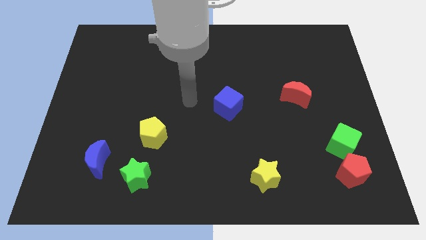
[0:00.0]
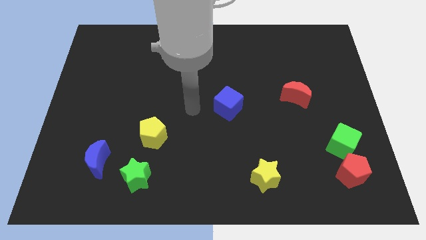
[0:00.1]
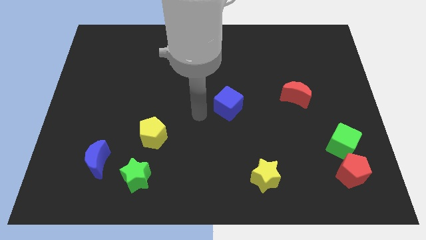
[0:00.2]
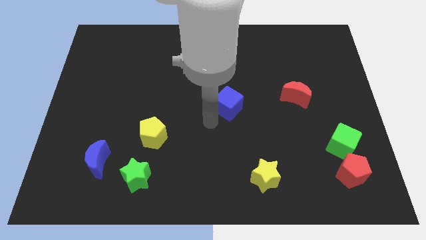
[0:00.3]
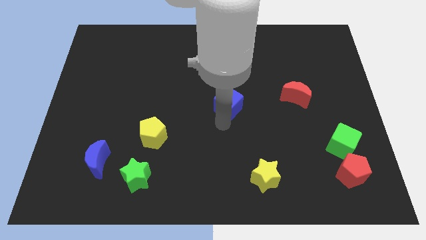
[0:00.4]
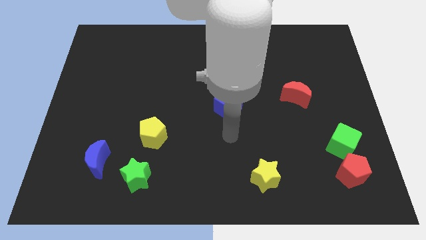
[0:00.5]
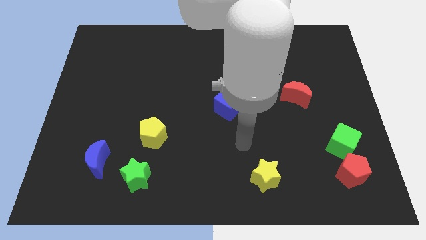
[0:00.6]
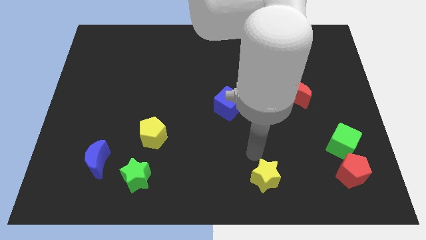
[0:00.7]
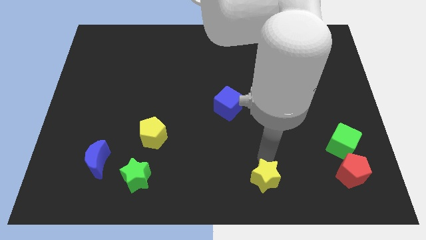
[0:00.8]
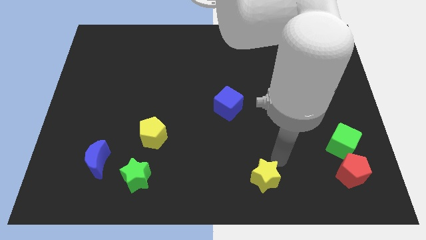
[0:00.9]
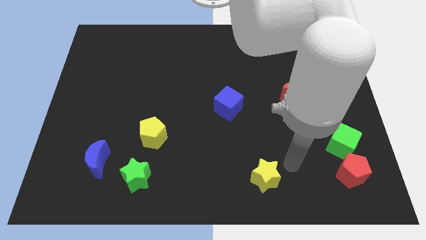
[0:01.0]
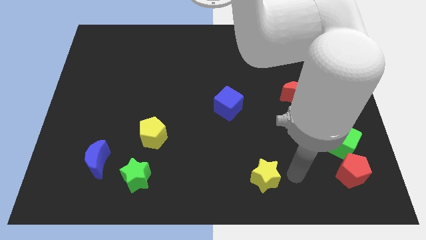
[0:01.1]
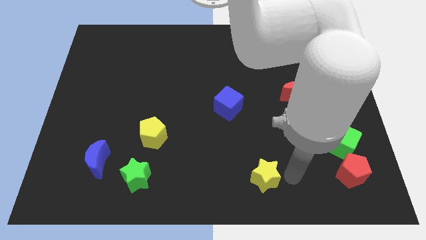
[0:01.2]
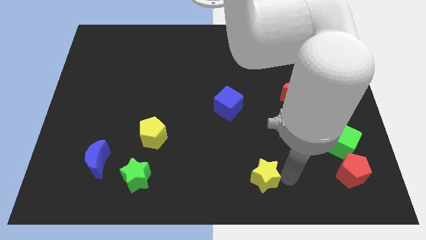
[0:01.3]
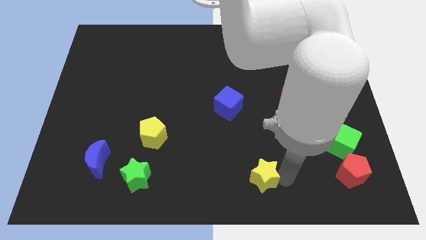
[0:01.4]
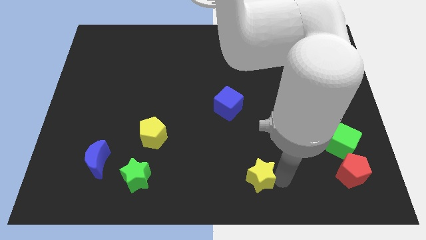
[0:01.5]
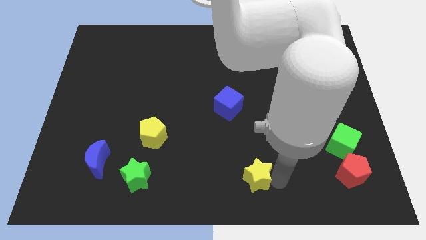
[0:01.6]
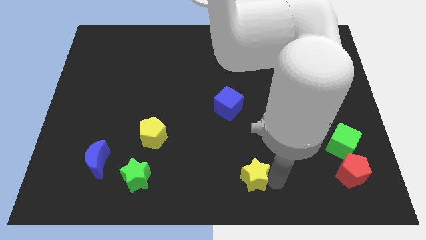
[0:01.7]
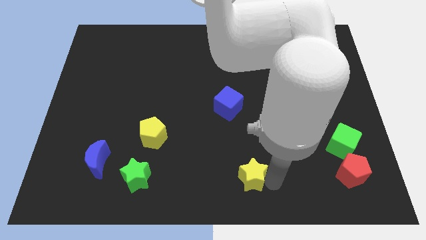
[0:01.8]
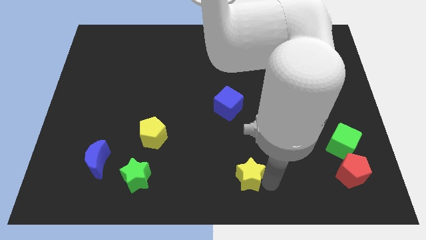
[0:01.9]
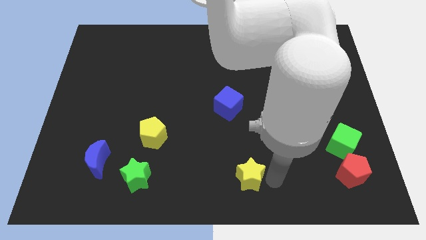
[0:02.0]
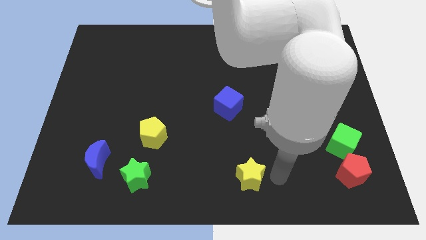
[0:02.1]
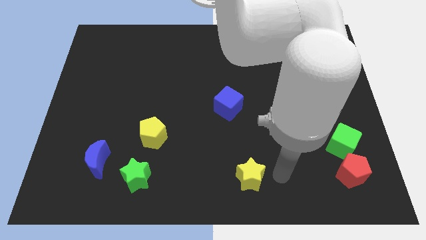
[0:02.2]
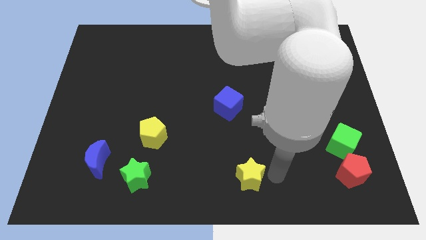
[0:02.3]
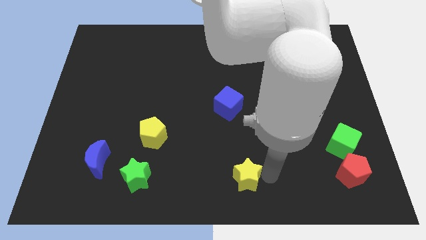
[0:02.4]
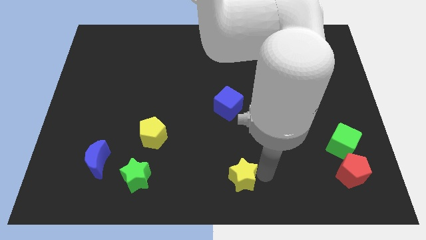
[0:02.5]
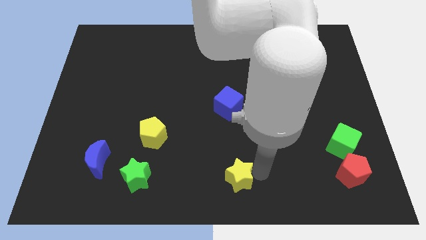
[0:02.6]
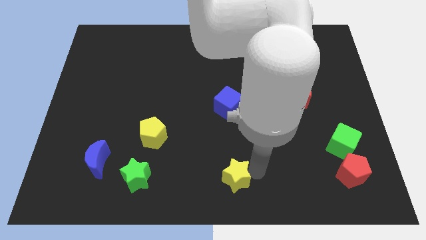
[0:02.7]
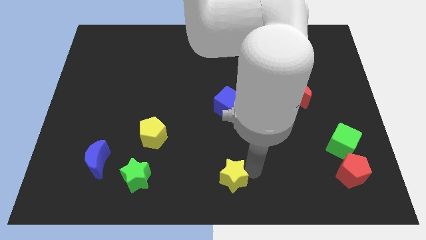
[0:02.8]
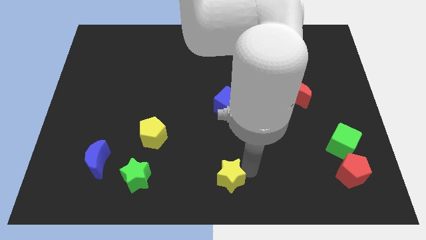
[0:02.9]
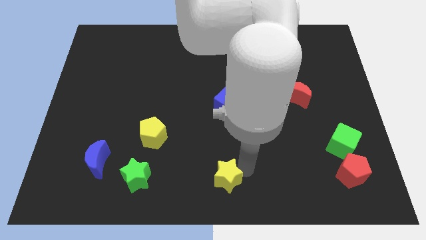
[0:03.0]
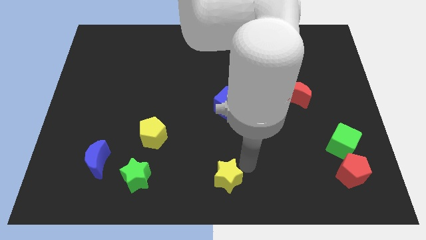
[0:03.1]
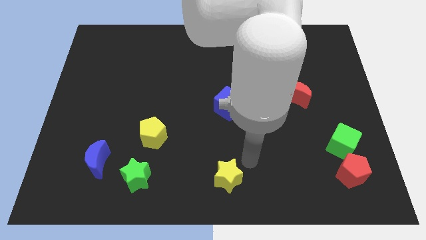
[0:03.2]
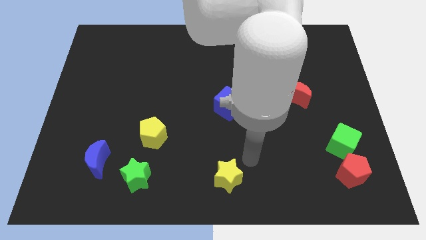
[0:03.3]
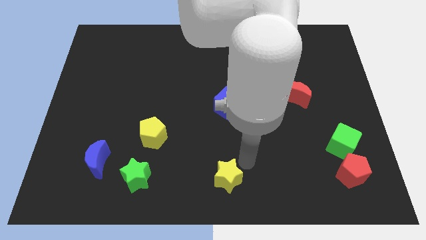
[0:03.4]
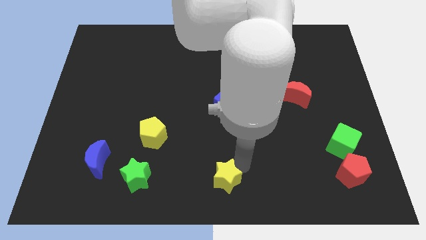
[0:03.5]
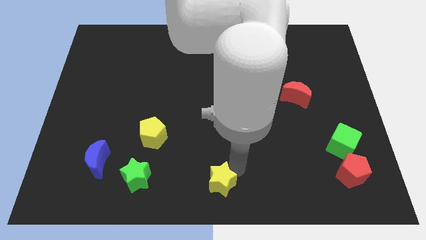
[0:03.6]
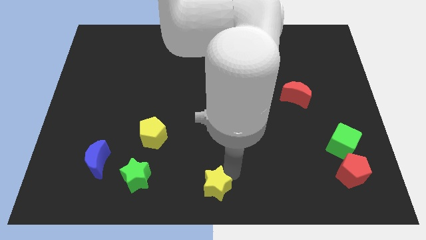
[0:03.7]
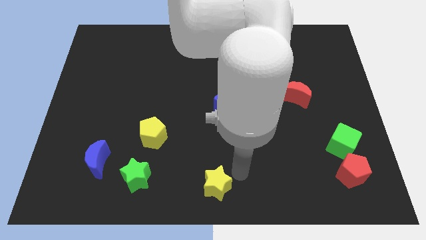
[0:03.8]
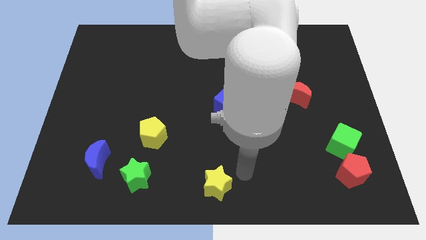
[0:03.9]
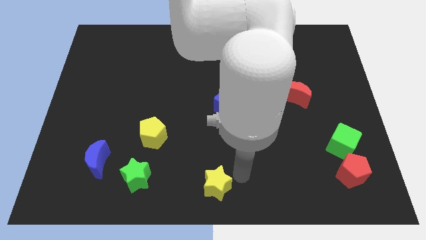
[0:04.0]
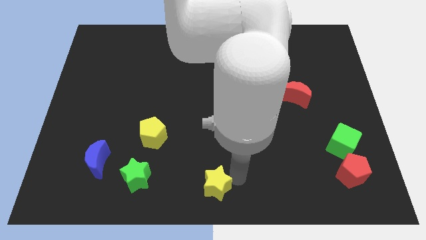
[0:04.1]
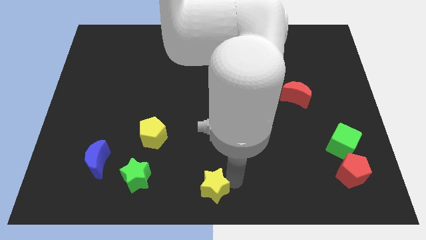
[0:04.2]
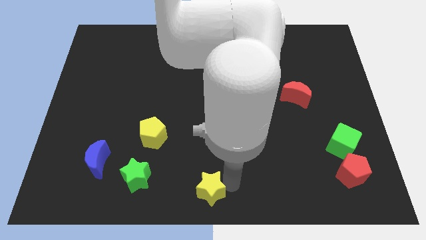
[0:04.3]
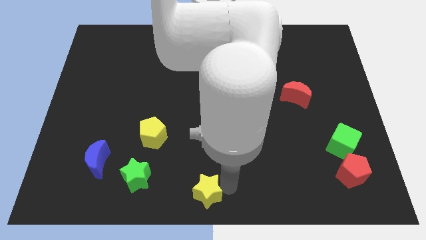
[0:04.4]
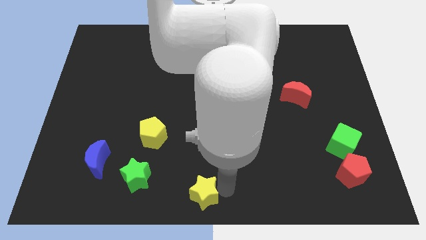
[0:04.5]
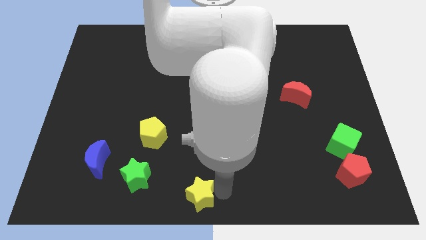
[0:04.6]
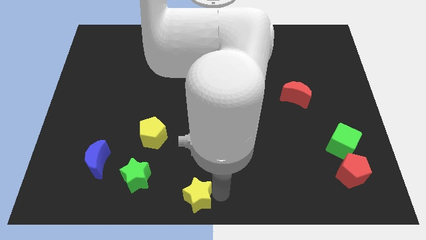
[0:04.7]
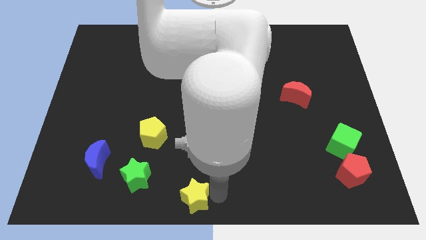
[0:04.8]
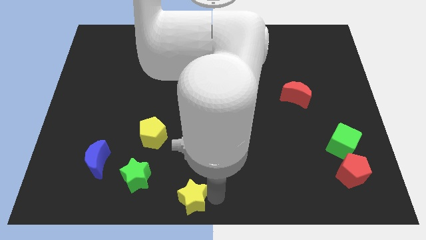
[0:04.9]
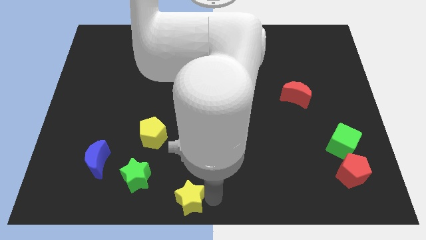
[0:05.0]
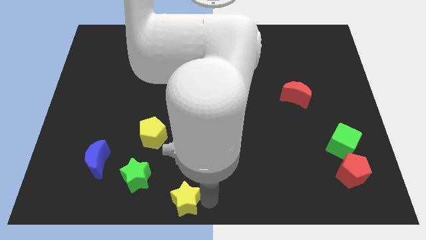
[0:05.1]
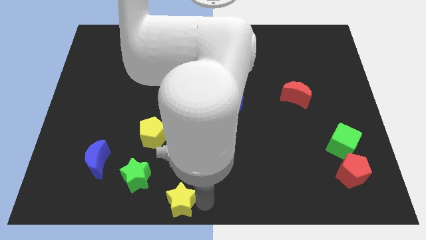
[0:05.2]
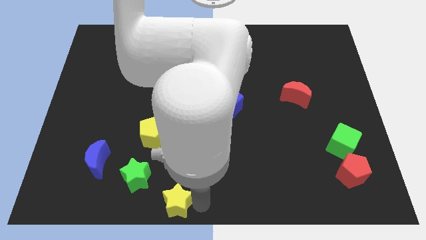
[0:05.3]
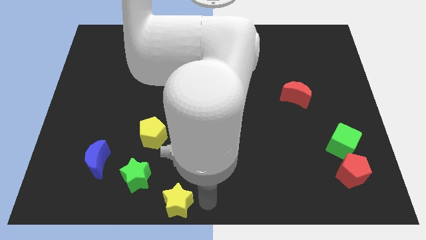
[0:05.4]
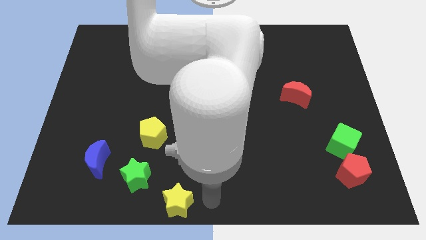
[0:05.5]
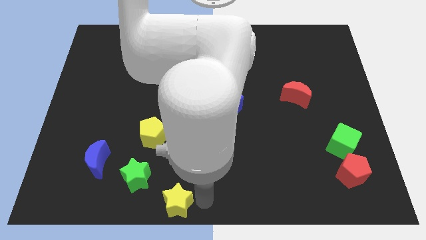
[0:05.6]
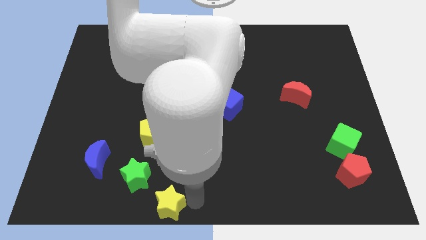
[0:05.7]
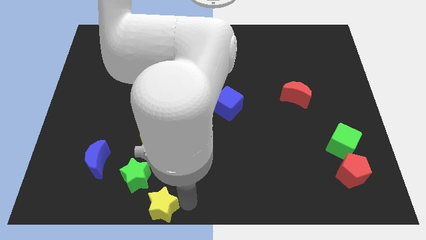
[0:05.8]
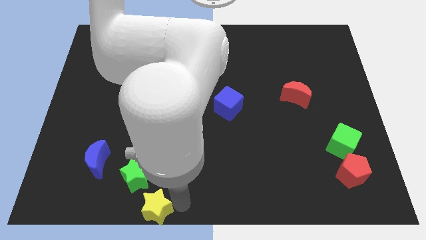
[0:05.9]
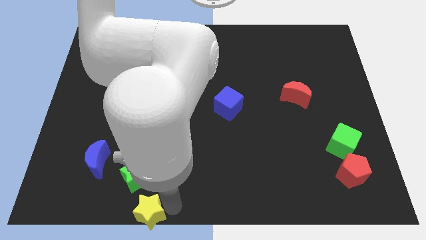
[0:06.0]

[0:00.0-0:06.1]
move the yellow star left

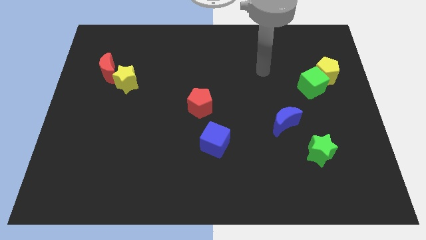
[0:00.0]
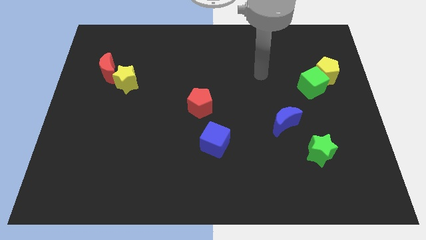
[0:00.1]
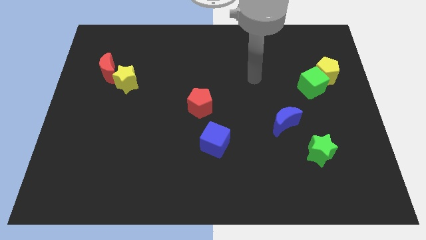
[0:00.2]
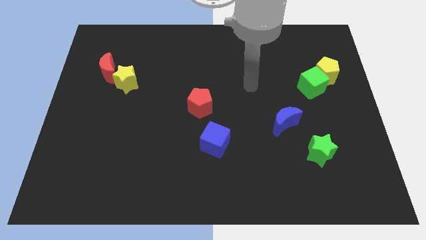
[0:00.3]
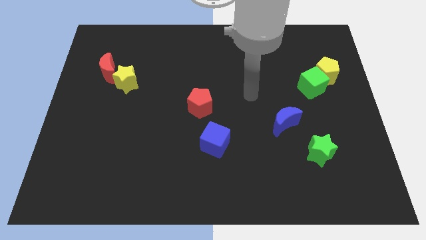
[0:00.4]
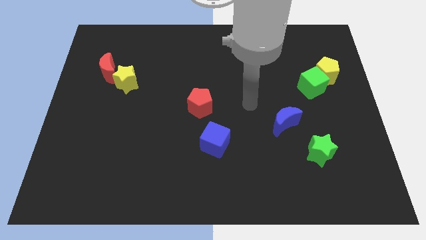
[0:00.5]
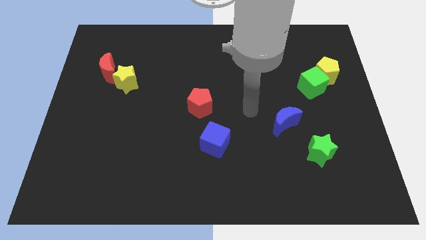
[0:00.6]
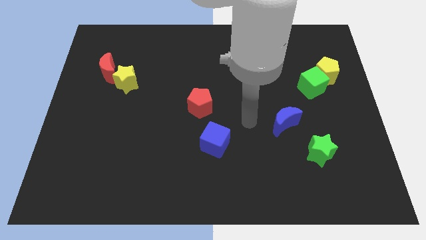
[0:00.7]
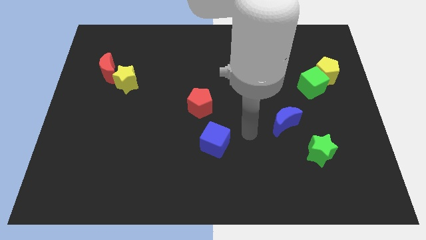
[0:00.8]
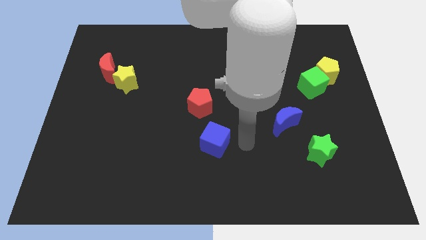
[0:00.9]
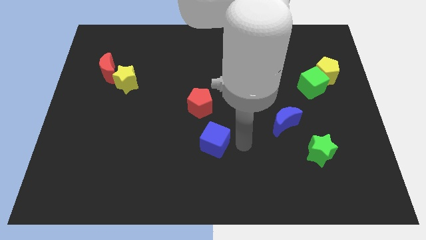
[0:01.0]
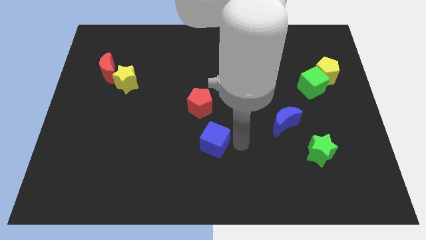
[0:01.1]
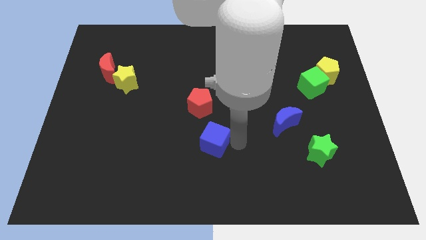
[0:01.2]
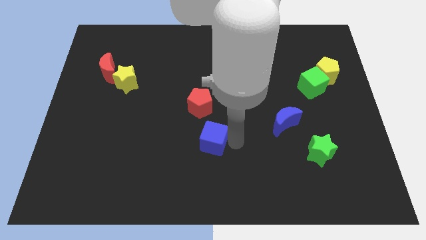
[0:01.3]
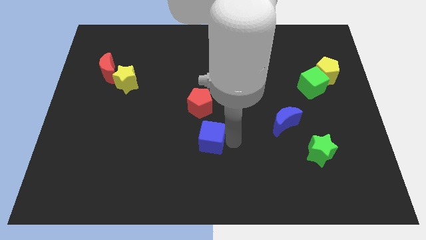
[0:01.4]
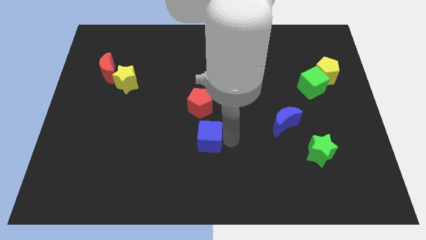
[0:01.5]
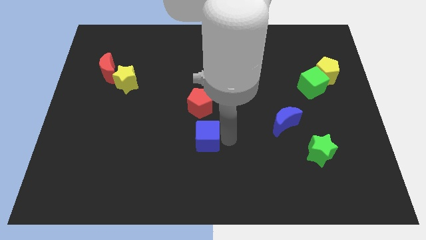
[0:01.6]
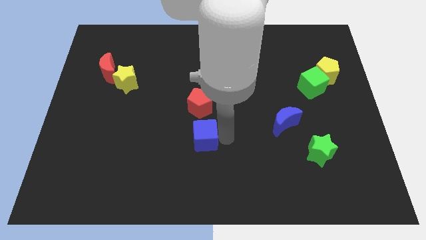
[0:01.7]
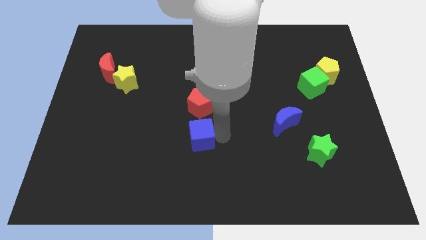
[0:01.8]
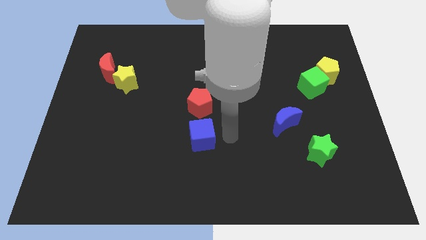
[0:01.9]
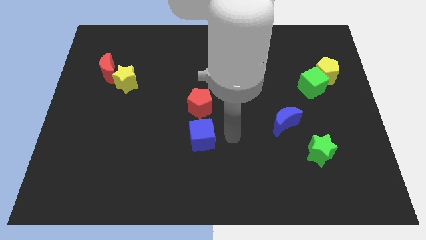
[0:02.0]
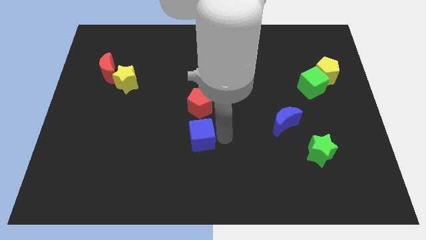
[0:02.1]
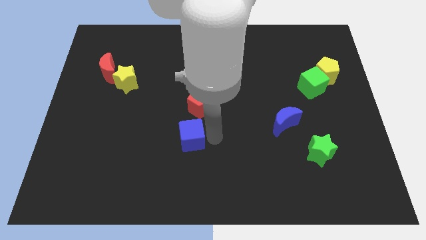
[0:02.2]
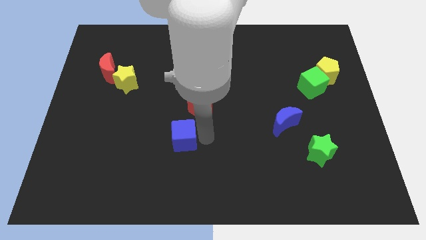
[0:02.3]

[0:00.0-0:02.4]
slide the blue cube left somewhat
